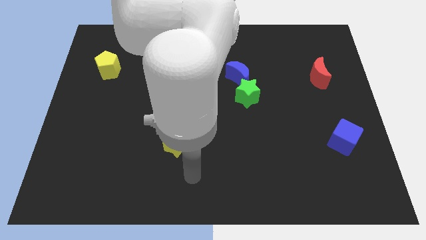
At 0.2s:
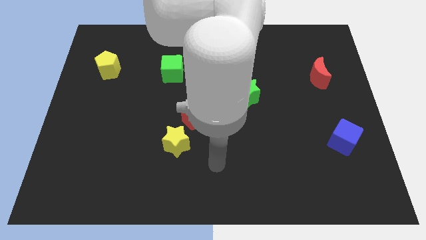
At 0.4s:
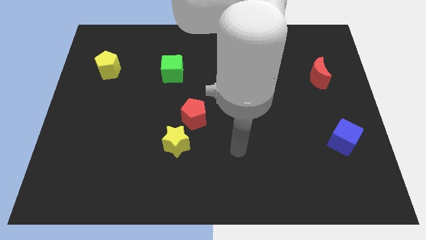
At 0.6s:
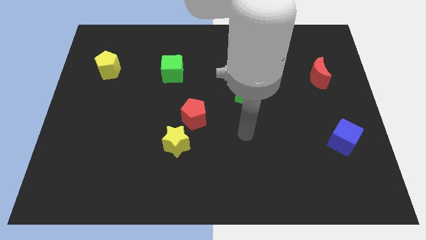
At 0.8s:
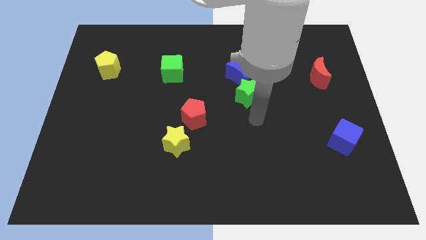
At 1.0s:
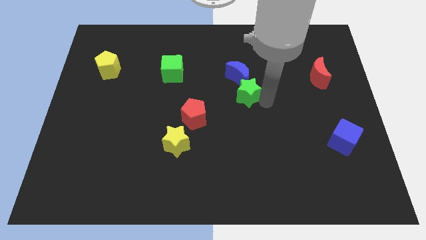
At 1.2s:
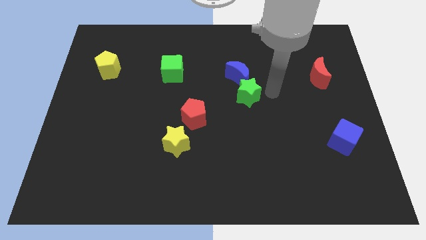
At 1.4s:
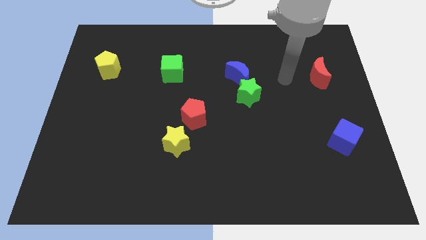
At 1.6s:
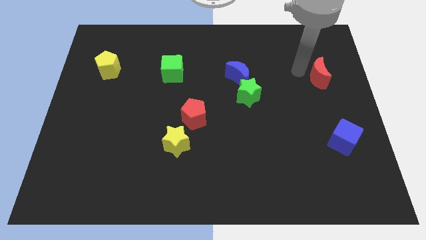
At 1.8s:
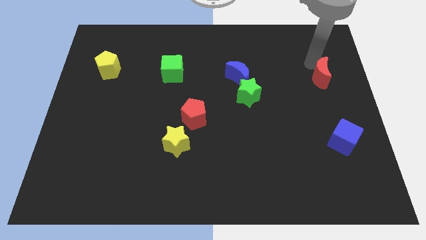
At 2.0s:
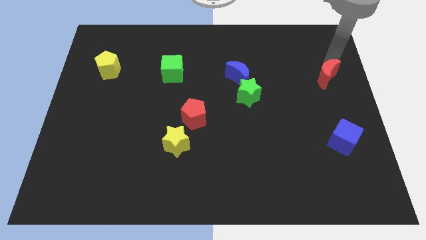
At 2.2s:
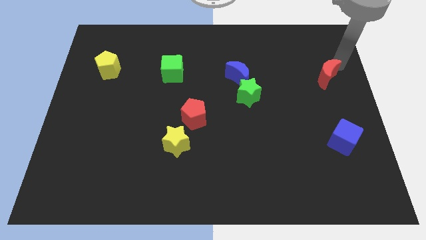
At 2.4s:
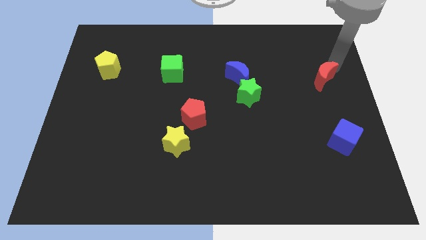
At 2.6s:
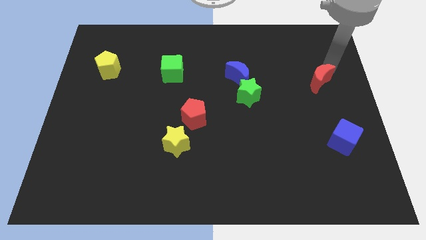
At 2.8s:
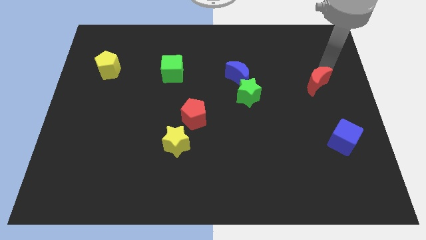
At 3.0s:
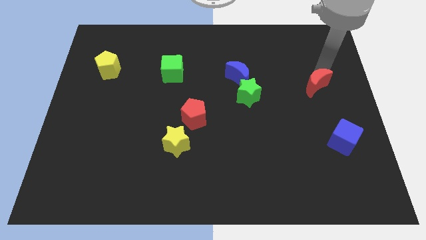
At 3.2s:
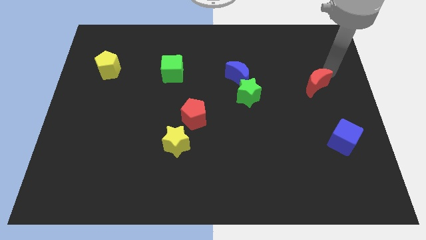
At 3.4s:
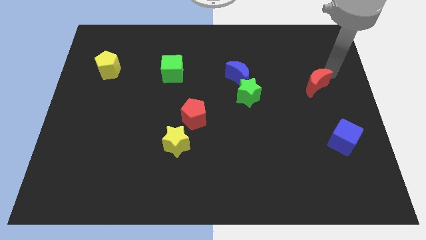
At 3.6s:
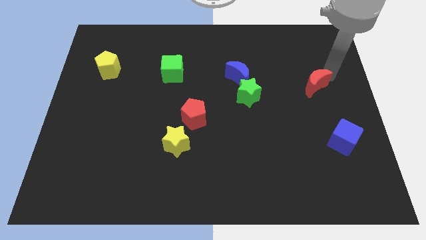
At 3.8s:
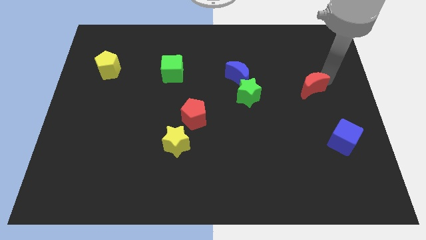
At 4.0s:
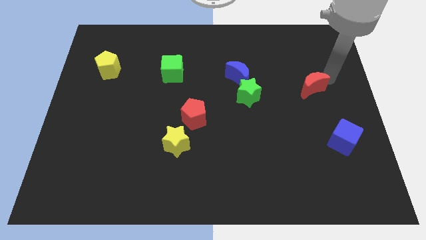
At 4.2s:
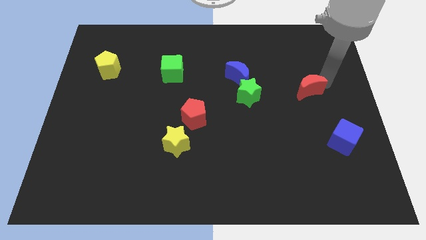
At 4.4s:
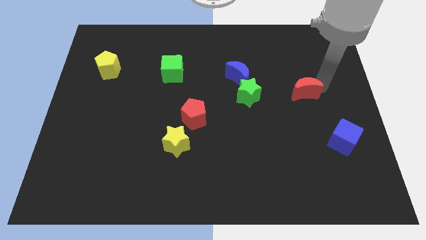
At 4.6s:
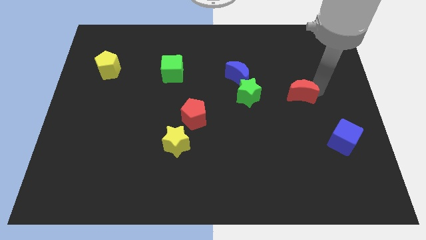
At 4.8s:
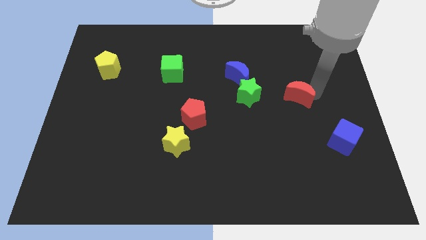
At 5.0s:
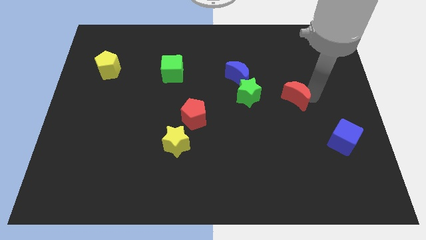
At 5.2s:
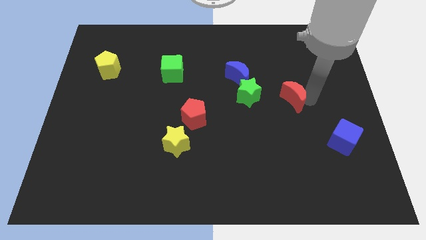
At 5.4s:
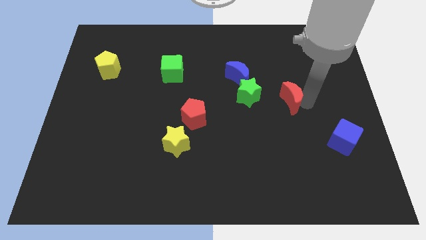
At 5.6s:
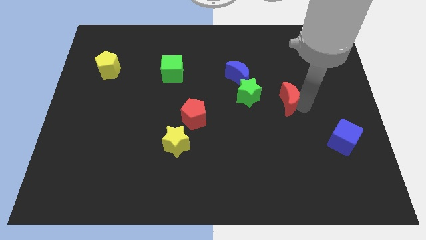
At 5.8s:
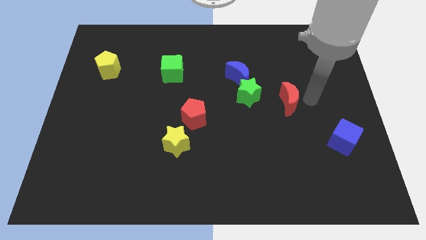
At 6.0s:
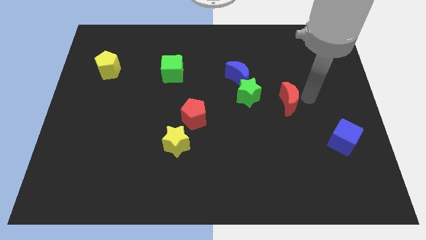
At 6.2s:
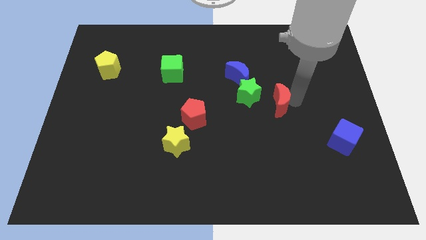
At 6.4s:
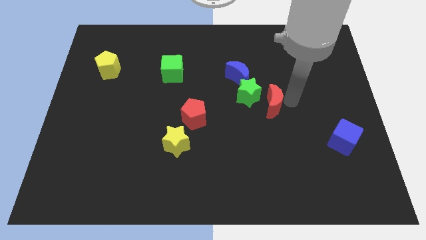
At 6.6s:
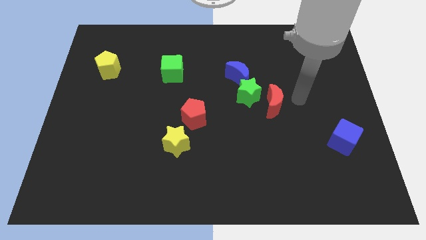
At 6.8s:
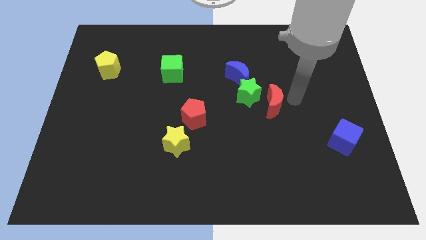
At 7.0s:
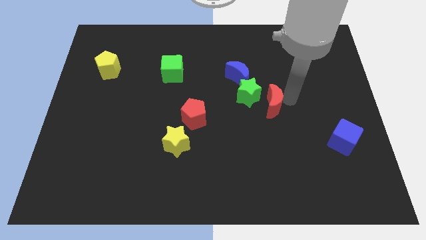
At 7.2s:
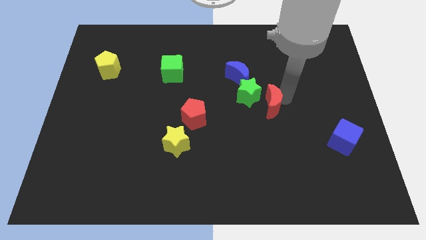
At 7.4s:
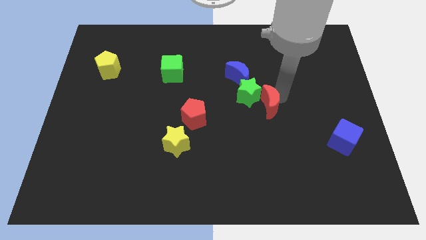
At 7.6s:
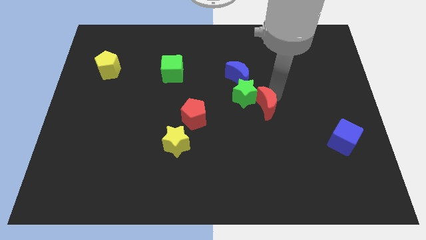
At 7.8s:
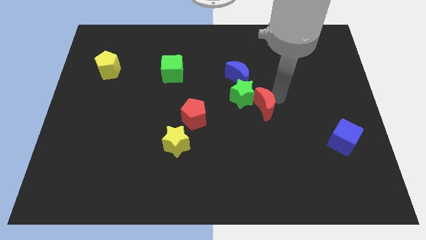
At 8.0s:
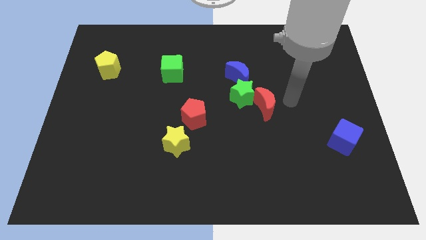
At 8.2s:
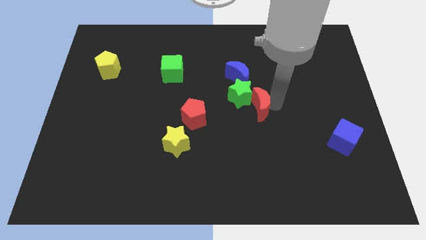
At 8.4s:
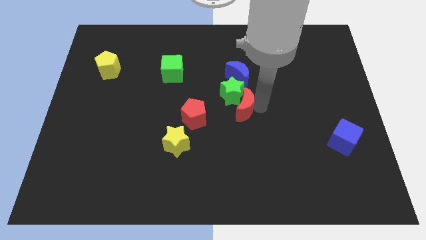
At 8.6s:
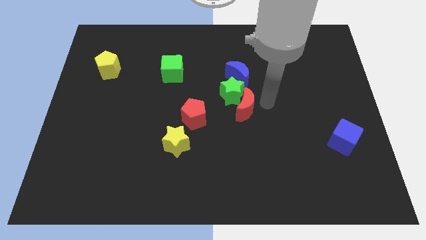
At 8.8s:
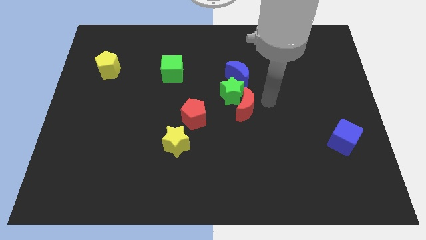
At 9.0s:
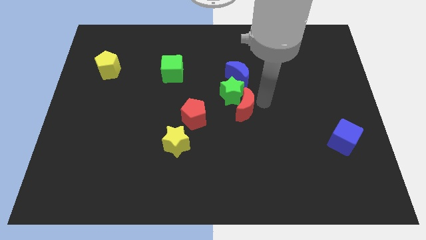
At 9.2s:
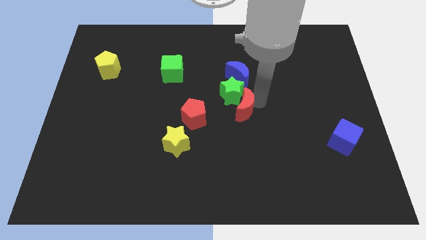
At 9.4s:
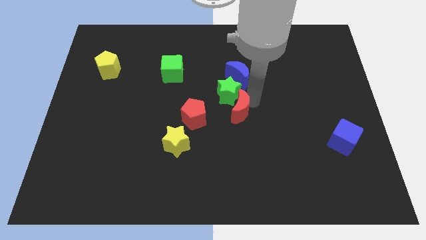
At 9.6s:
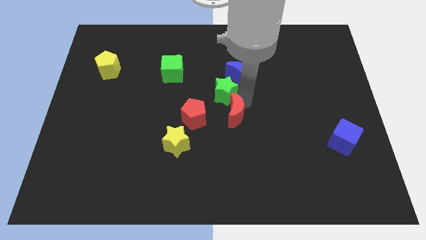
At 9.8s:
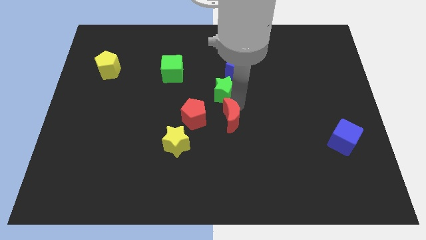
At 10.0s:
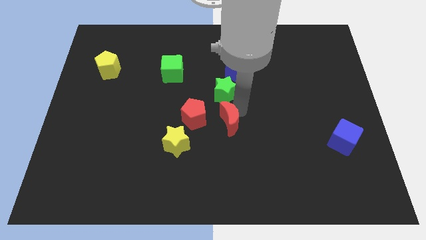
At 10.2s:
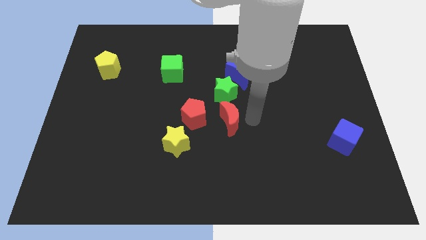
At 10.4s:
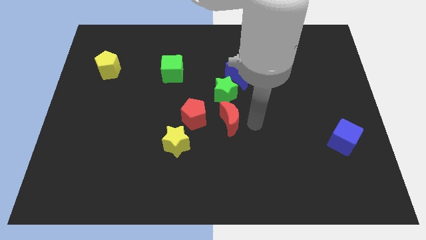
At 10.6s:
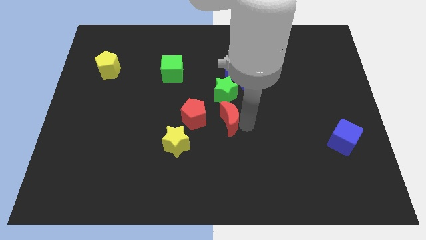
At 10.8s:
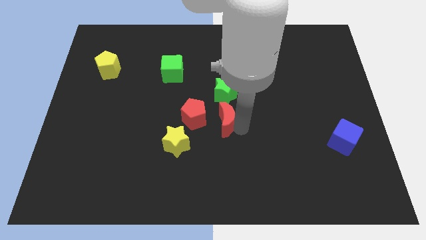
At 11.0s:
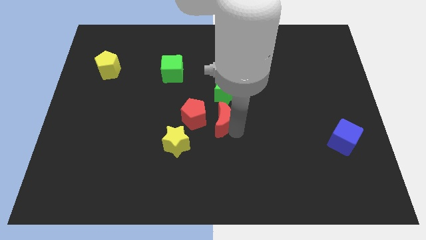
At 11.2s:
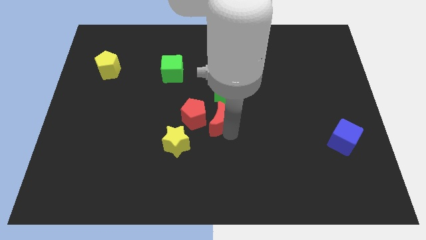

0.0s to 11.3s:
put the red moon towards the red pentagon
